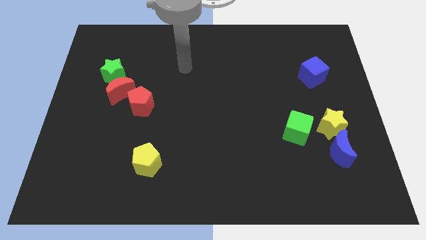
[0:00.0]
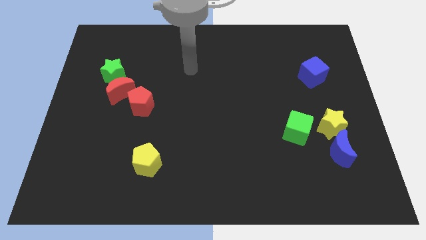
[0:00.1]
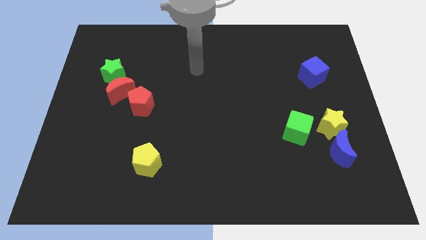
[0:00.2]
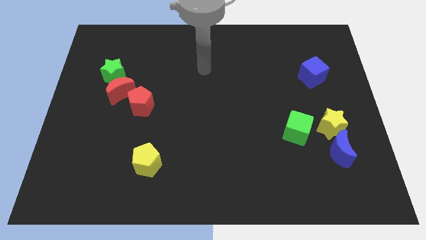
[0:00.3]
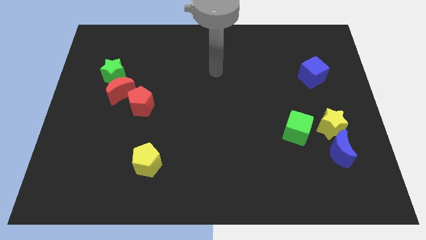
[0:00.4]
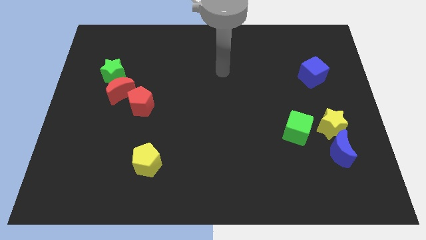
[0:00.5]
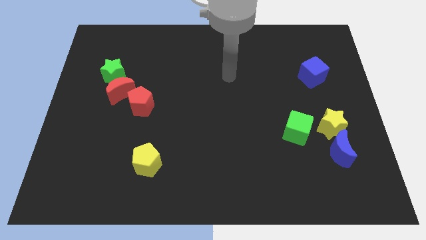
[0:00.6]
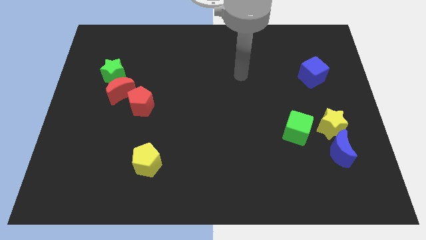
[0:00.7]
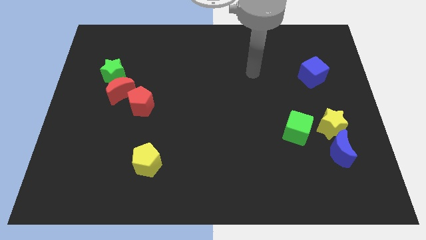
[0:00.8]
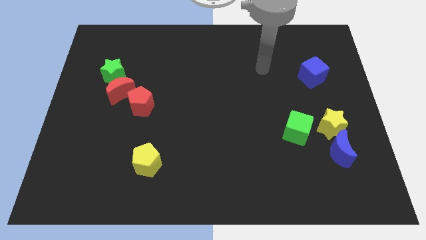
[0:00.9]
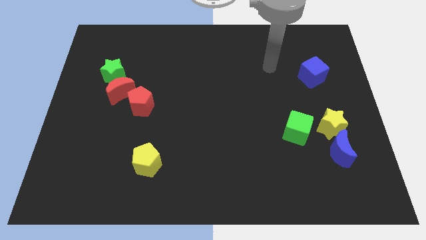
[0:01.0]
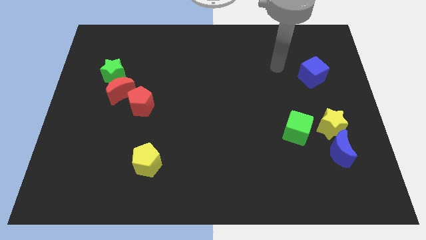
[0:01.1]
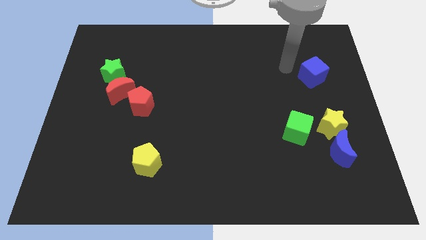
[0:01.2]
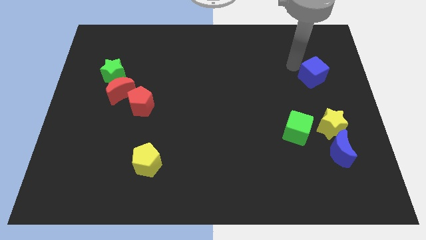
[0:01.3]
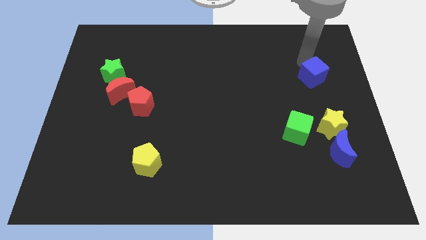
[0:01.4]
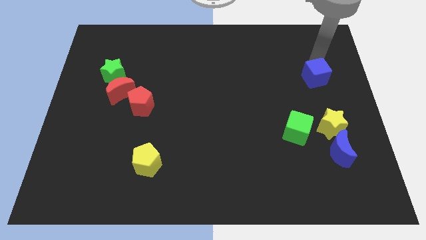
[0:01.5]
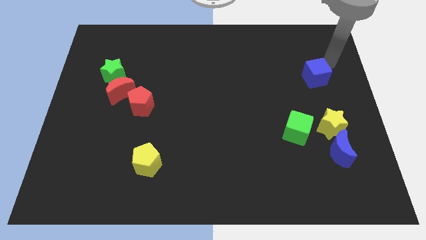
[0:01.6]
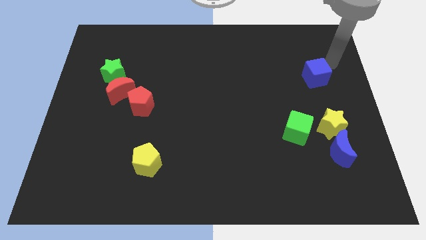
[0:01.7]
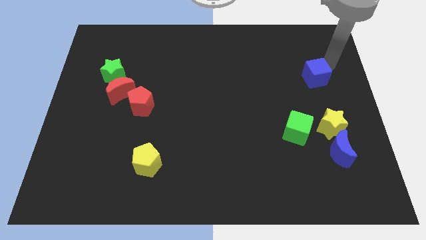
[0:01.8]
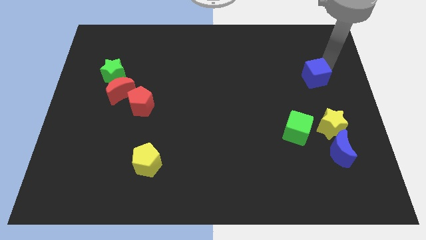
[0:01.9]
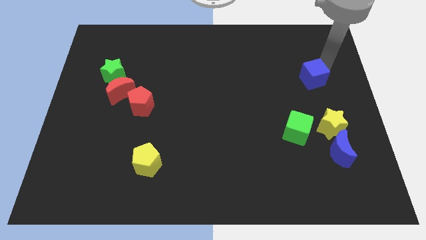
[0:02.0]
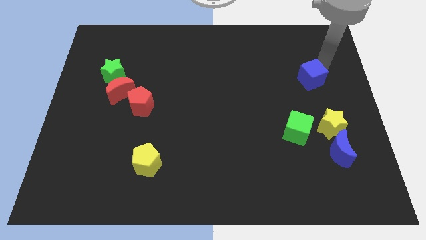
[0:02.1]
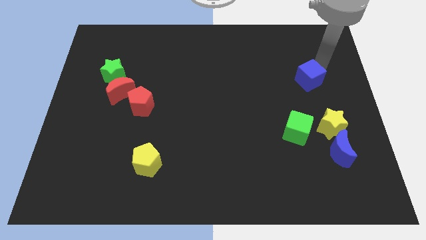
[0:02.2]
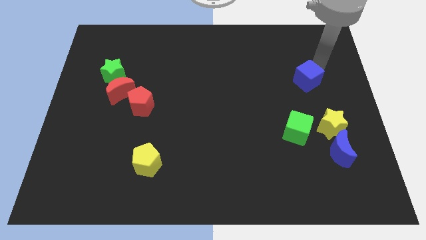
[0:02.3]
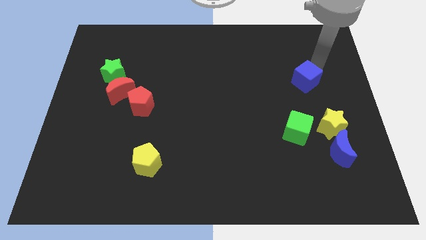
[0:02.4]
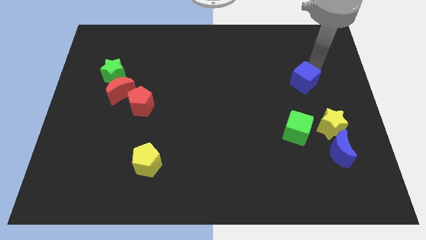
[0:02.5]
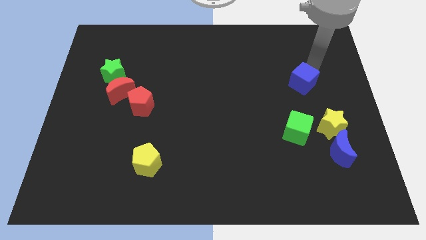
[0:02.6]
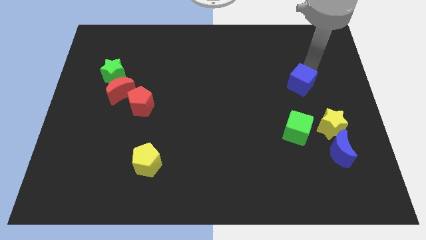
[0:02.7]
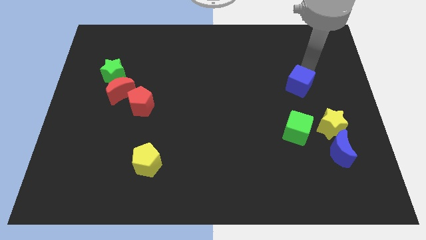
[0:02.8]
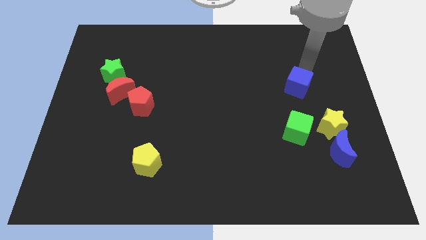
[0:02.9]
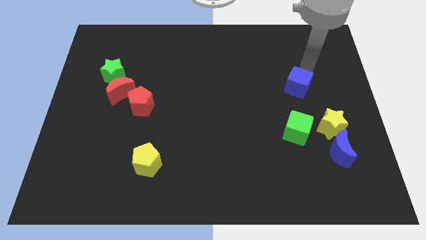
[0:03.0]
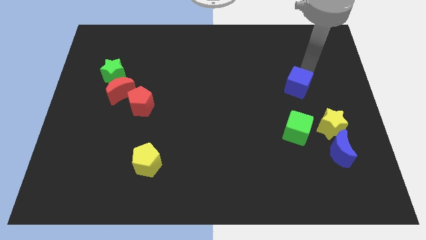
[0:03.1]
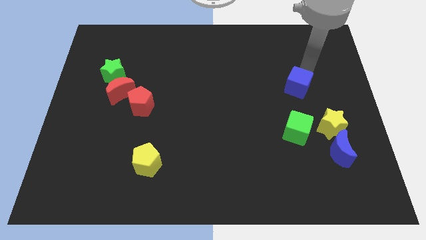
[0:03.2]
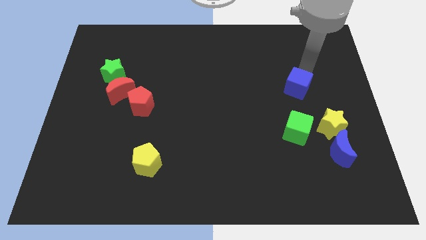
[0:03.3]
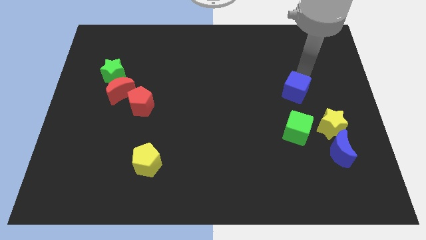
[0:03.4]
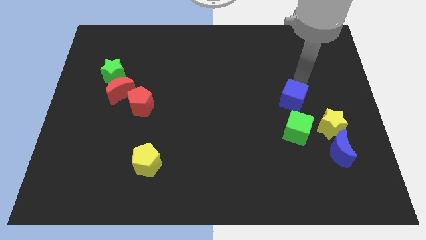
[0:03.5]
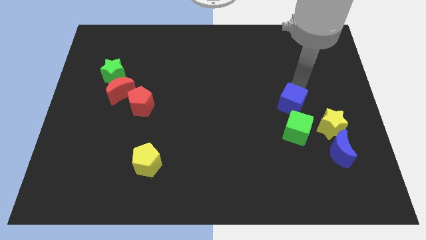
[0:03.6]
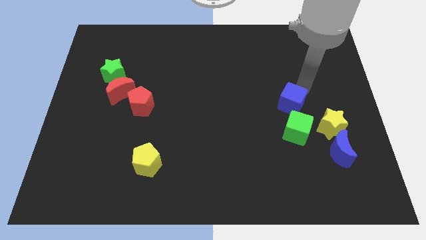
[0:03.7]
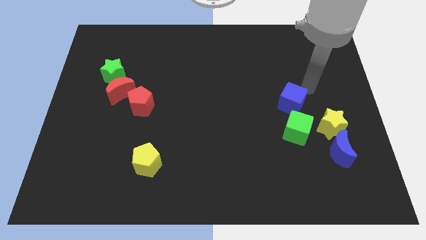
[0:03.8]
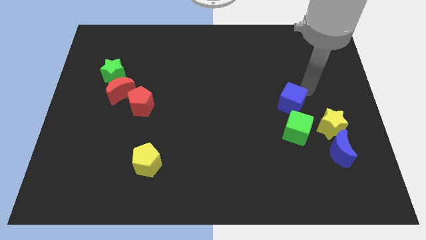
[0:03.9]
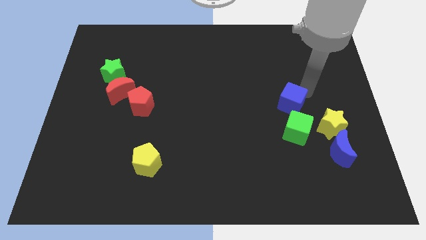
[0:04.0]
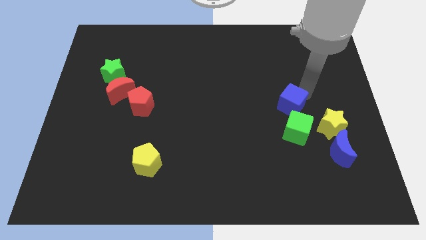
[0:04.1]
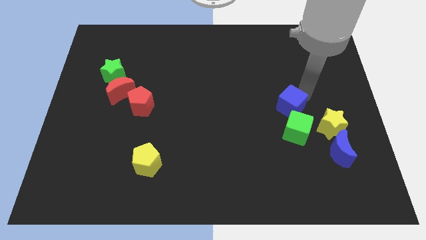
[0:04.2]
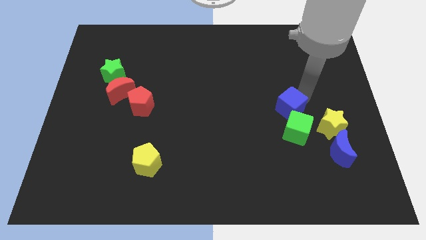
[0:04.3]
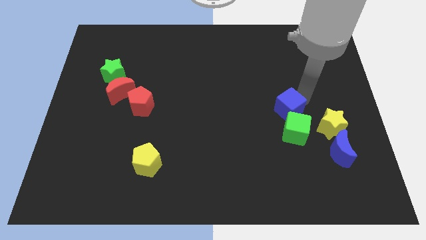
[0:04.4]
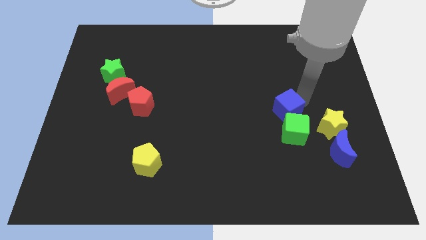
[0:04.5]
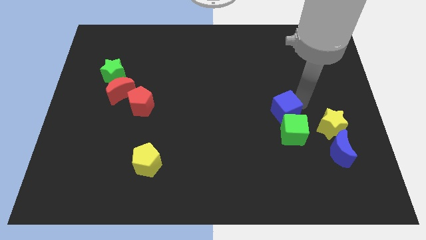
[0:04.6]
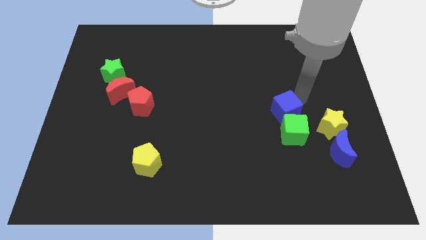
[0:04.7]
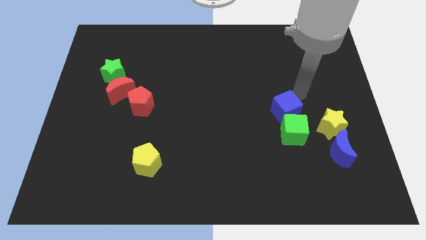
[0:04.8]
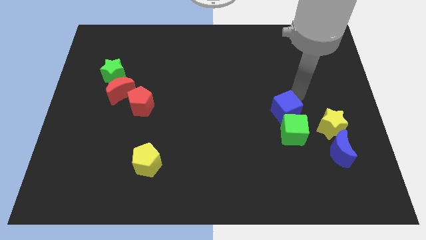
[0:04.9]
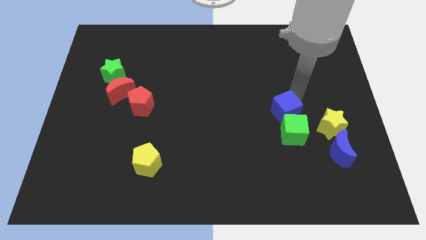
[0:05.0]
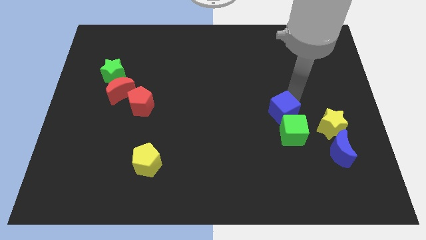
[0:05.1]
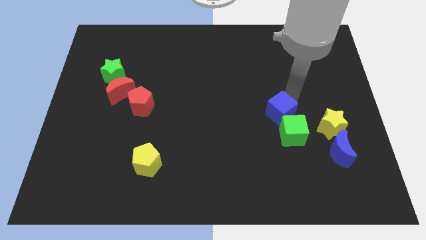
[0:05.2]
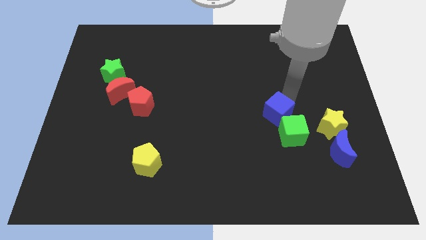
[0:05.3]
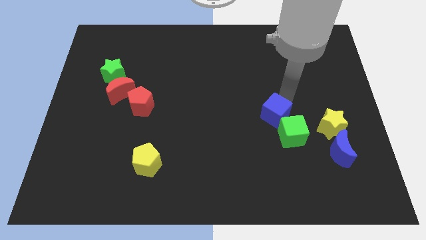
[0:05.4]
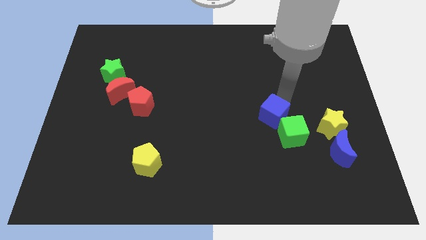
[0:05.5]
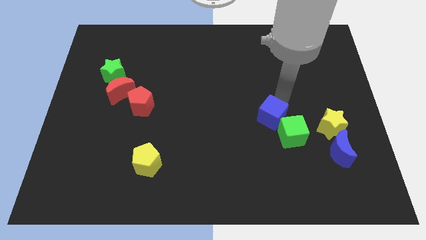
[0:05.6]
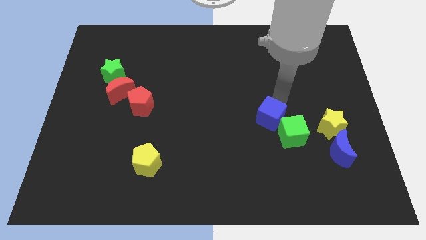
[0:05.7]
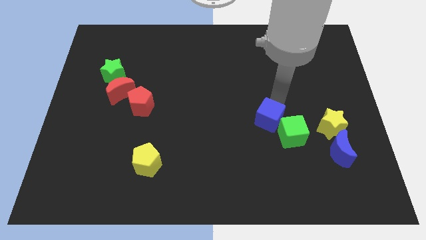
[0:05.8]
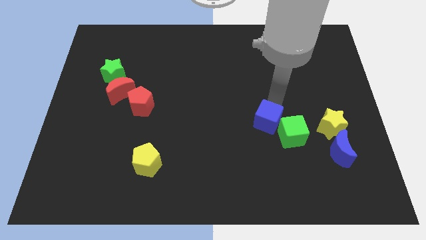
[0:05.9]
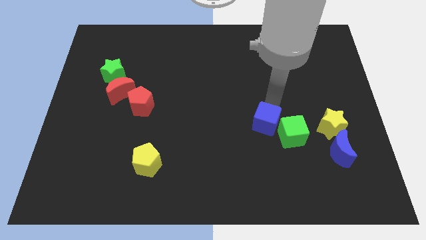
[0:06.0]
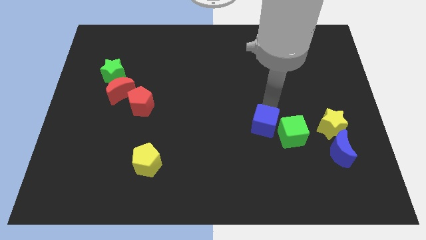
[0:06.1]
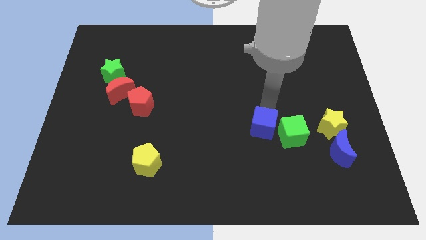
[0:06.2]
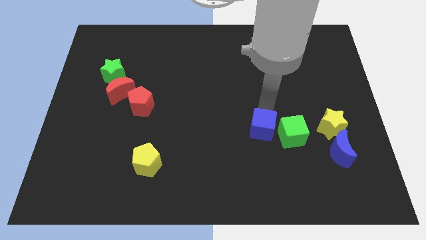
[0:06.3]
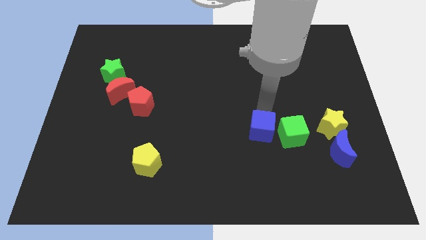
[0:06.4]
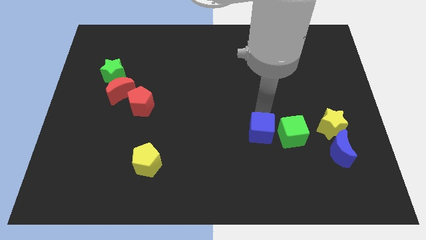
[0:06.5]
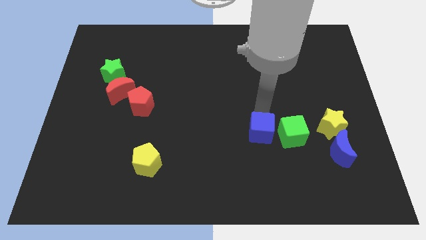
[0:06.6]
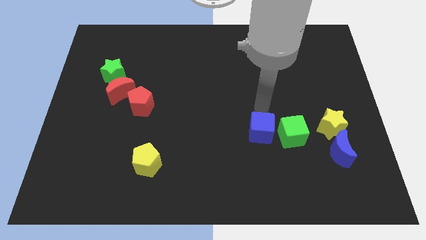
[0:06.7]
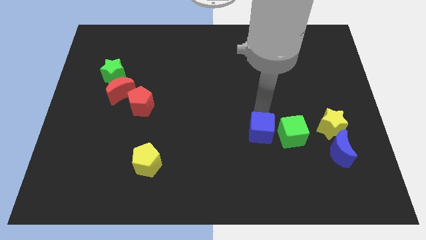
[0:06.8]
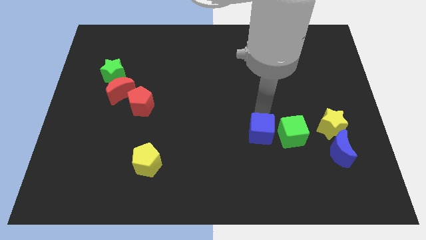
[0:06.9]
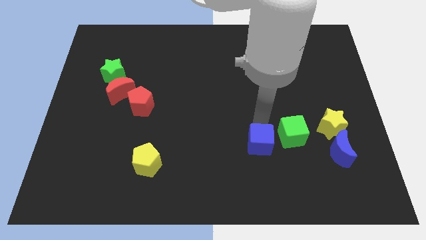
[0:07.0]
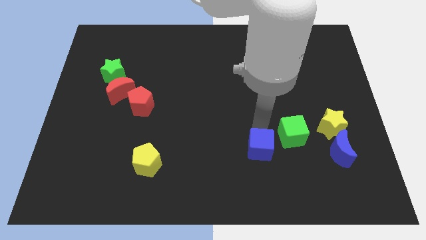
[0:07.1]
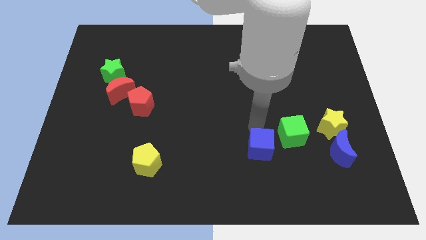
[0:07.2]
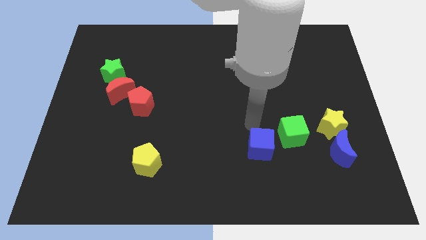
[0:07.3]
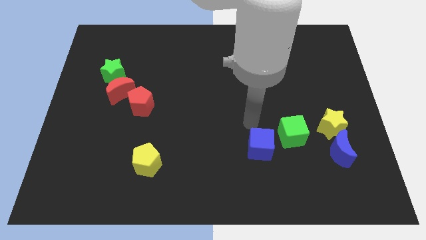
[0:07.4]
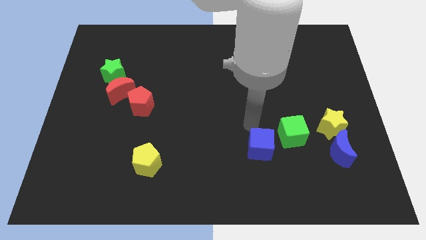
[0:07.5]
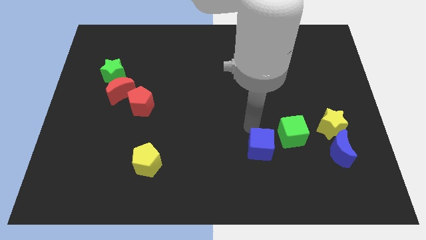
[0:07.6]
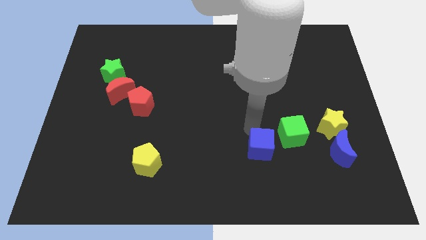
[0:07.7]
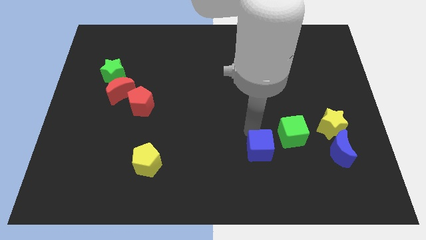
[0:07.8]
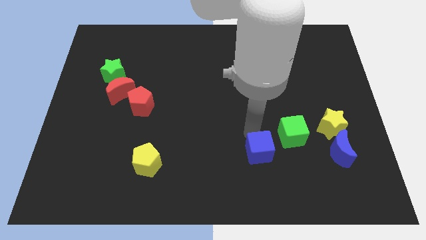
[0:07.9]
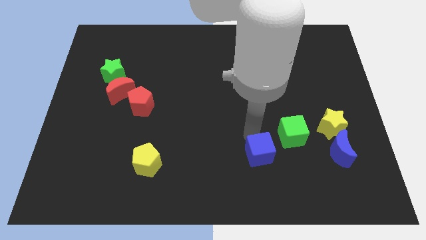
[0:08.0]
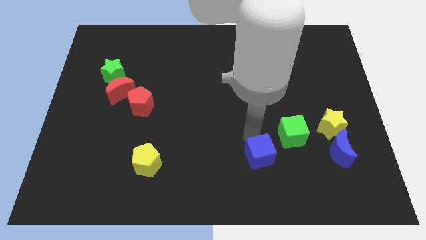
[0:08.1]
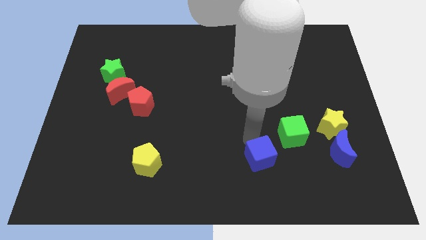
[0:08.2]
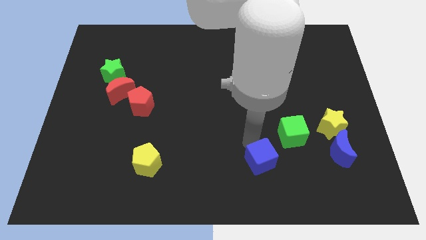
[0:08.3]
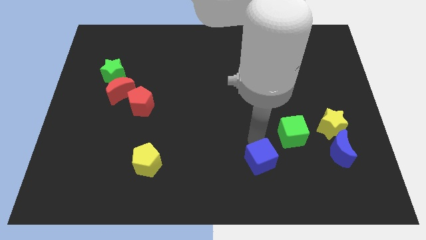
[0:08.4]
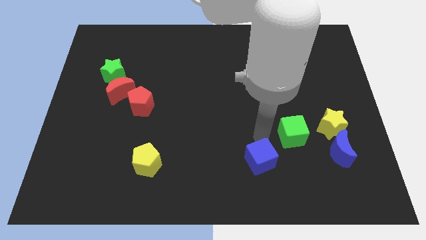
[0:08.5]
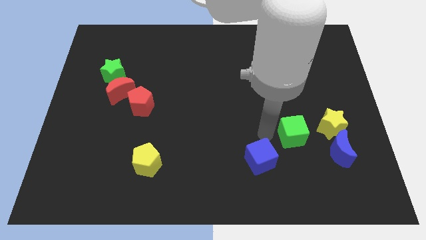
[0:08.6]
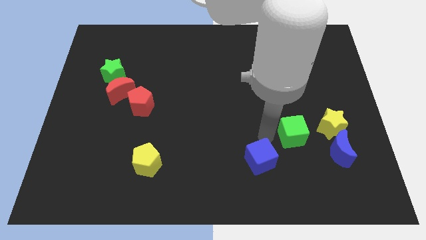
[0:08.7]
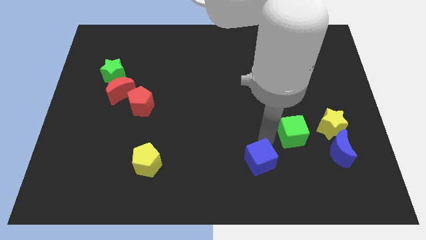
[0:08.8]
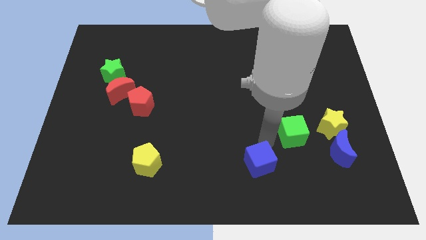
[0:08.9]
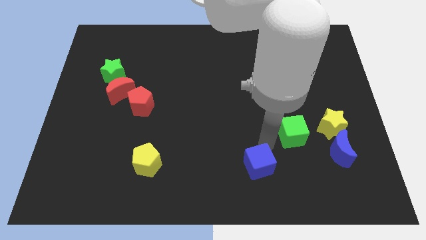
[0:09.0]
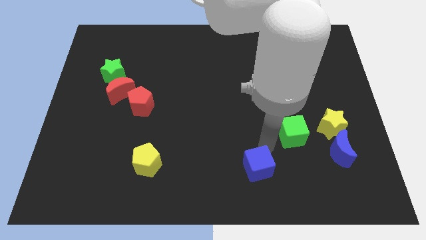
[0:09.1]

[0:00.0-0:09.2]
move the blue cube to the bottom
